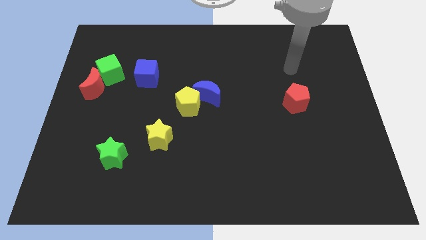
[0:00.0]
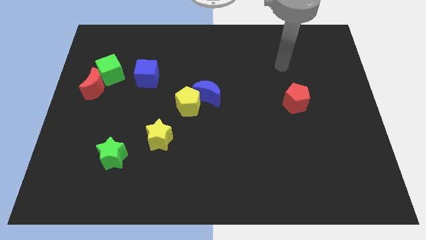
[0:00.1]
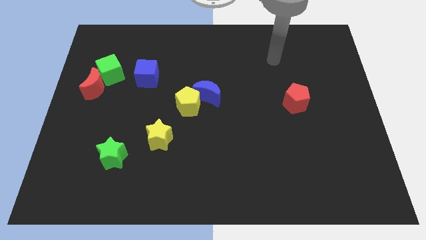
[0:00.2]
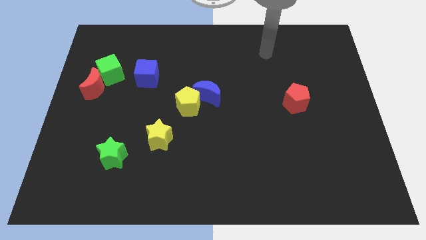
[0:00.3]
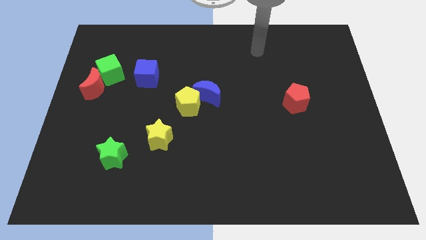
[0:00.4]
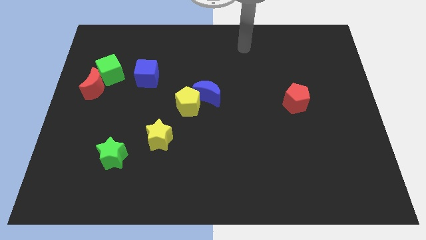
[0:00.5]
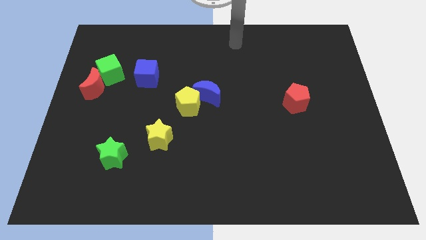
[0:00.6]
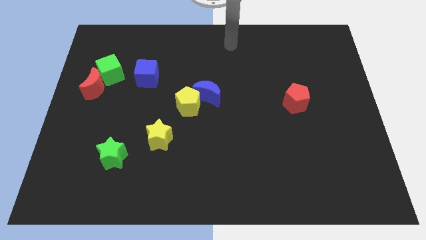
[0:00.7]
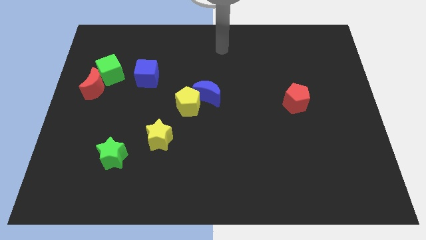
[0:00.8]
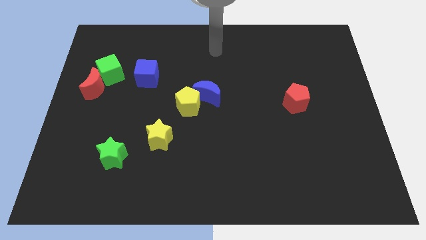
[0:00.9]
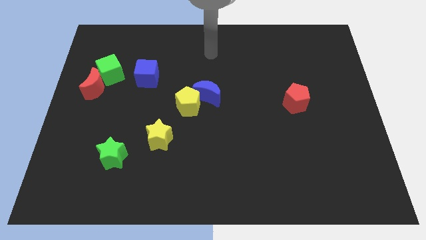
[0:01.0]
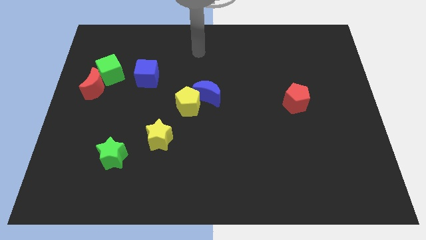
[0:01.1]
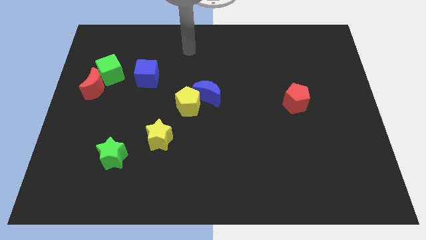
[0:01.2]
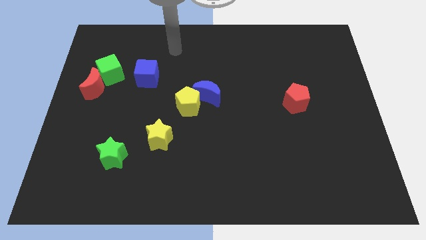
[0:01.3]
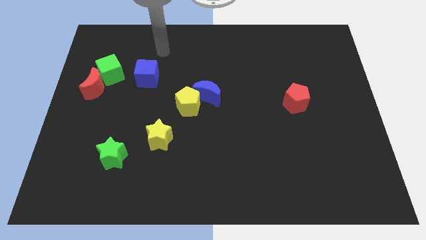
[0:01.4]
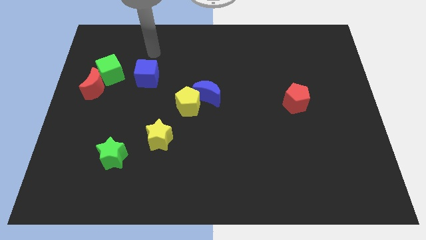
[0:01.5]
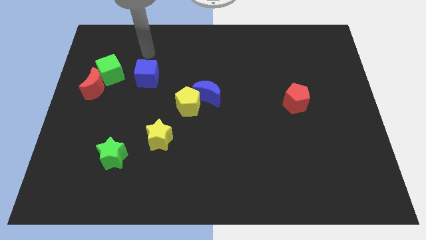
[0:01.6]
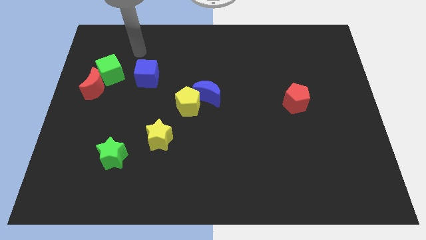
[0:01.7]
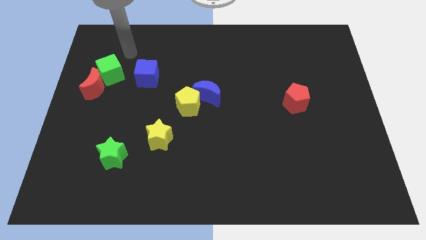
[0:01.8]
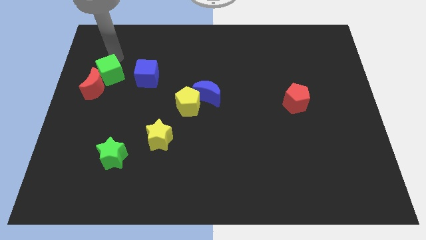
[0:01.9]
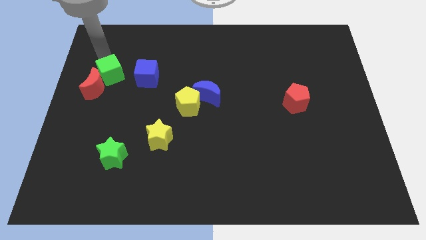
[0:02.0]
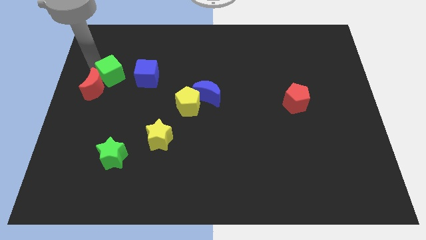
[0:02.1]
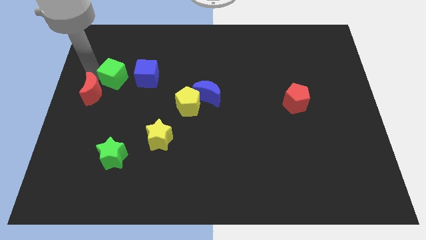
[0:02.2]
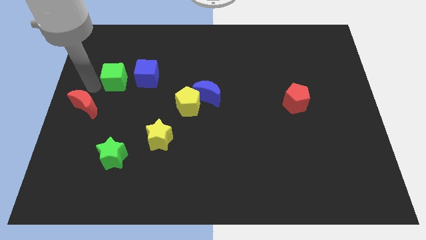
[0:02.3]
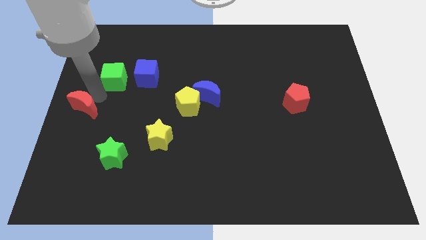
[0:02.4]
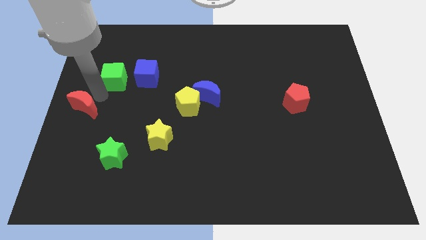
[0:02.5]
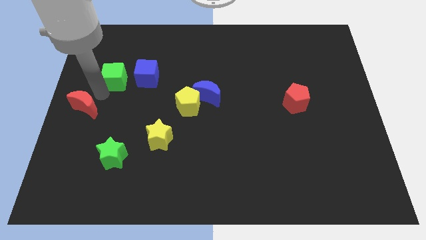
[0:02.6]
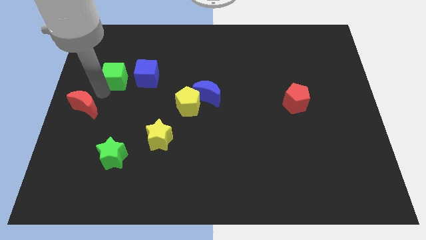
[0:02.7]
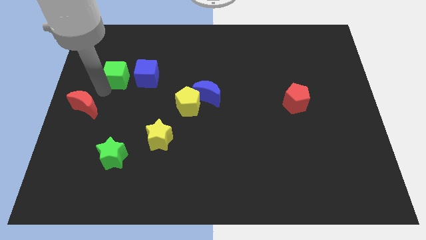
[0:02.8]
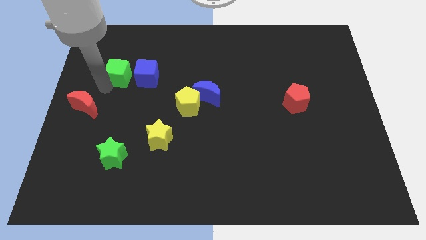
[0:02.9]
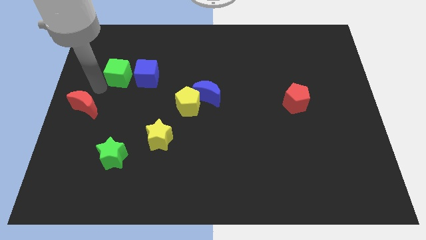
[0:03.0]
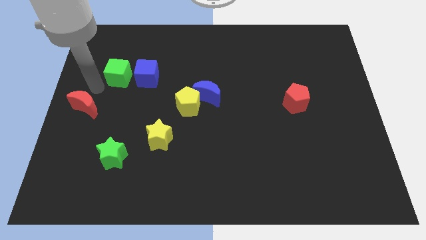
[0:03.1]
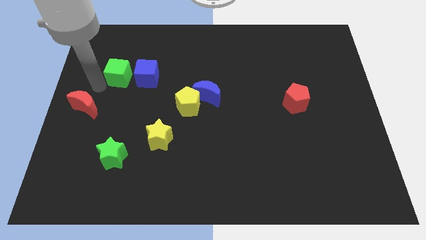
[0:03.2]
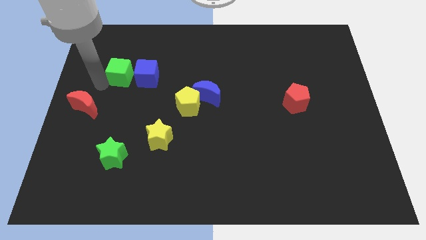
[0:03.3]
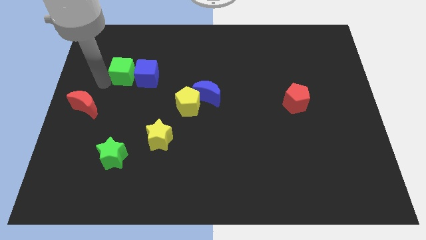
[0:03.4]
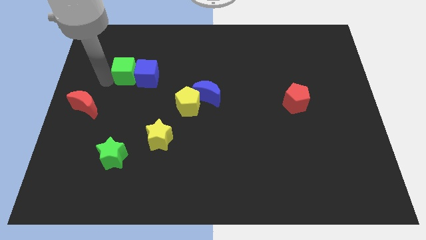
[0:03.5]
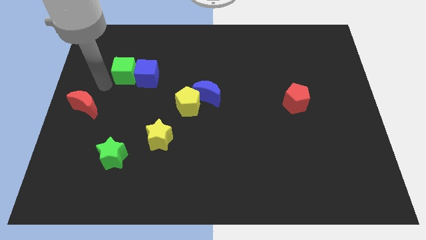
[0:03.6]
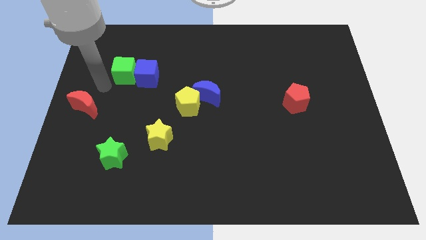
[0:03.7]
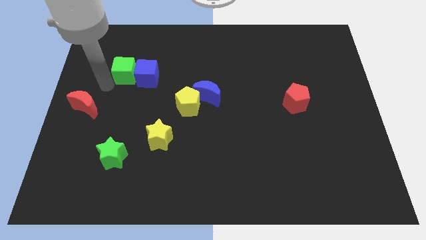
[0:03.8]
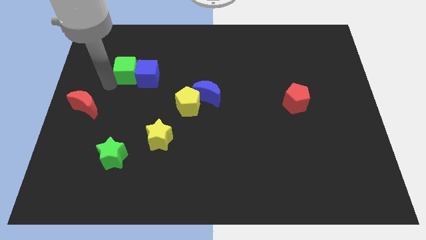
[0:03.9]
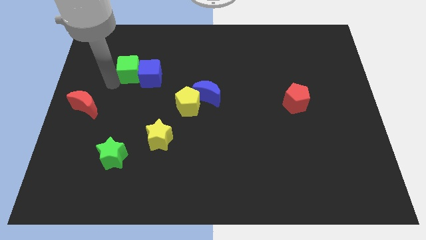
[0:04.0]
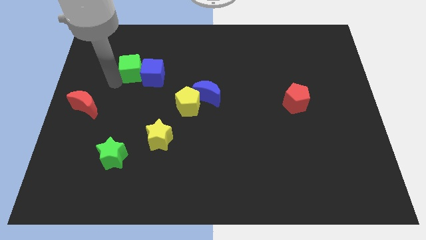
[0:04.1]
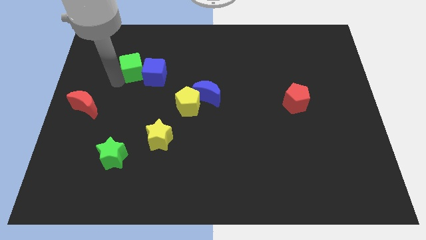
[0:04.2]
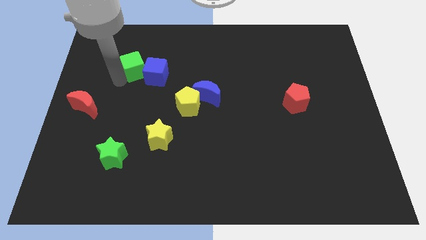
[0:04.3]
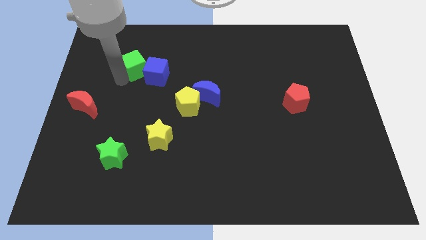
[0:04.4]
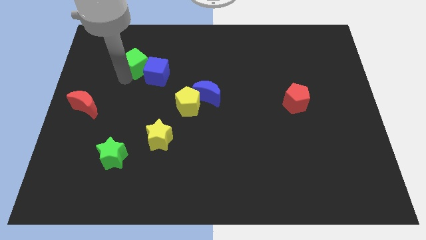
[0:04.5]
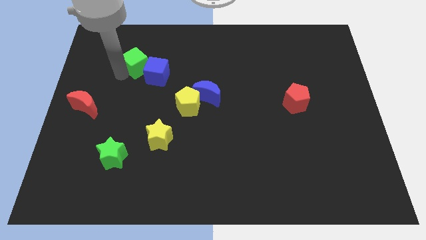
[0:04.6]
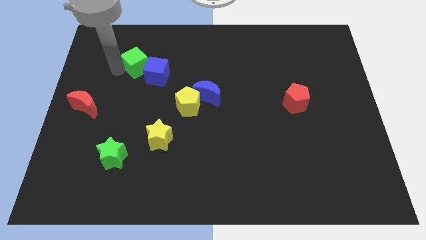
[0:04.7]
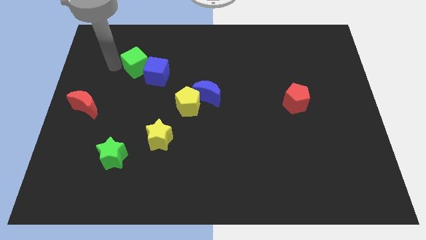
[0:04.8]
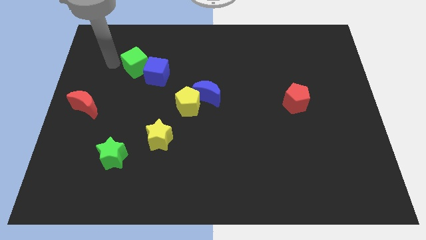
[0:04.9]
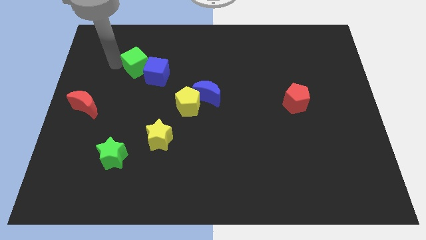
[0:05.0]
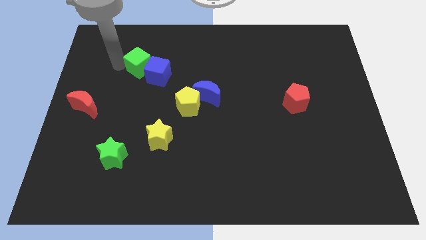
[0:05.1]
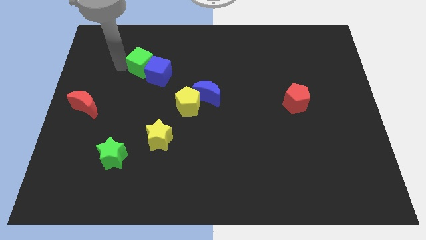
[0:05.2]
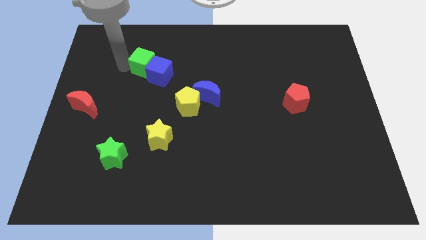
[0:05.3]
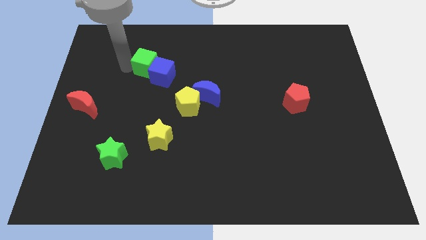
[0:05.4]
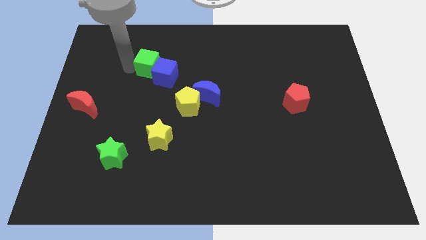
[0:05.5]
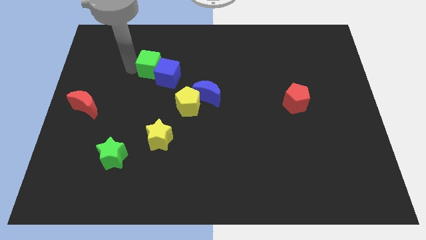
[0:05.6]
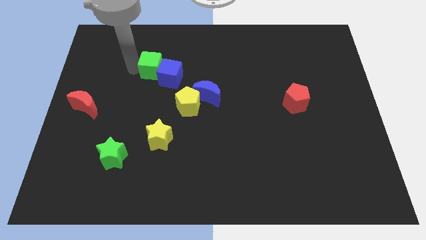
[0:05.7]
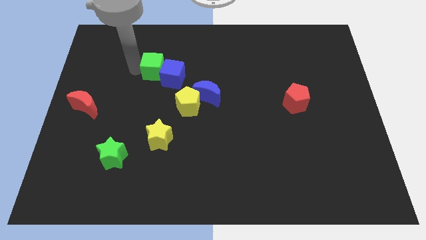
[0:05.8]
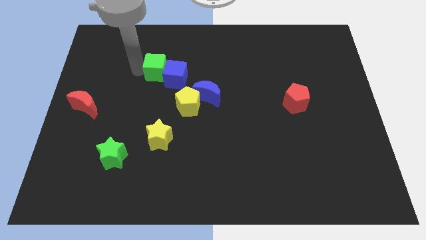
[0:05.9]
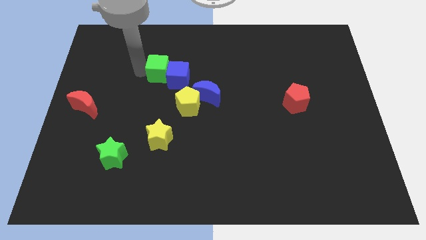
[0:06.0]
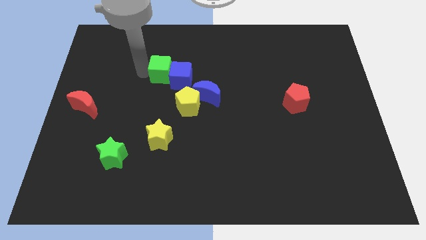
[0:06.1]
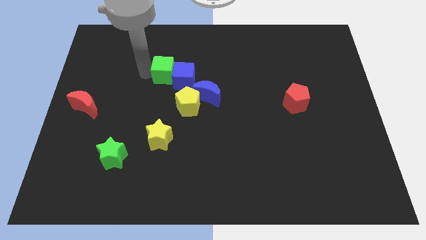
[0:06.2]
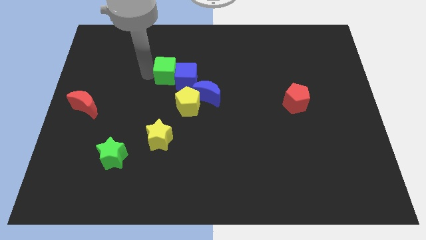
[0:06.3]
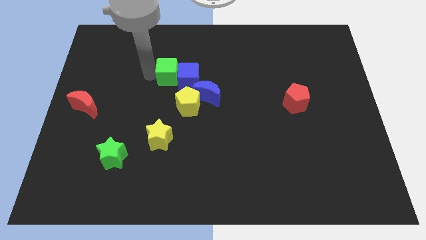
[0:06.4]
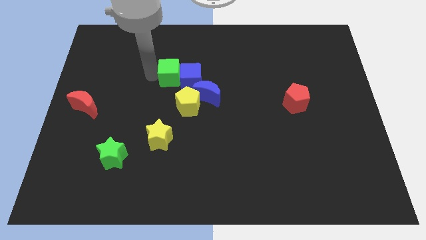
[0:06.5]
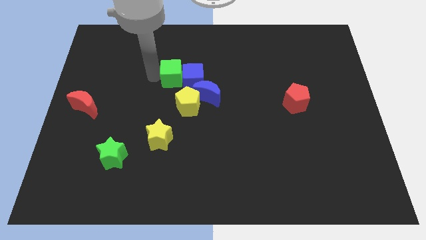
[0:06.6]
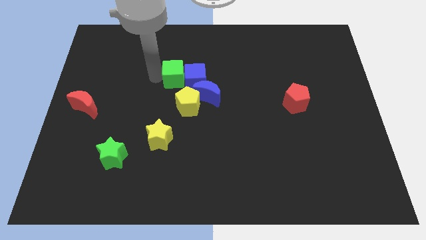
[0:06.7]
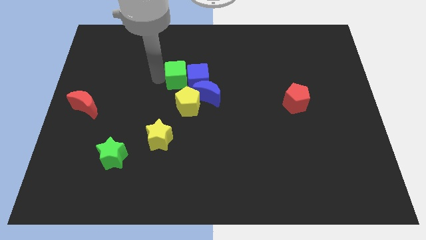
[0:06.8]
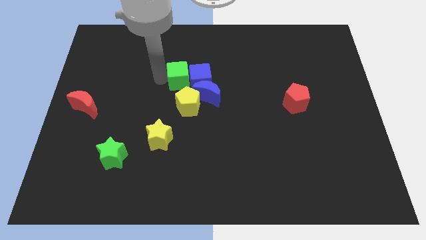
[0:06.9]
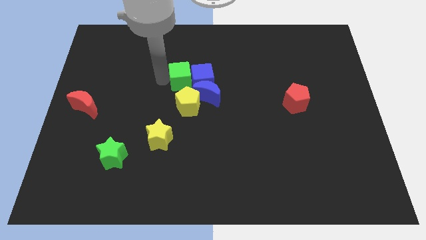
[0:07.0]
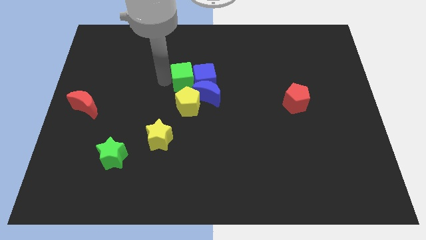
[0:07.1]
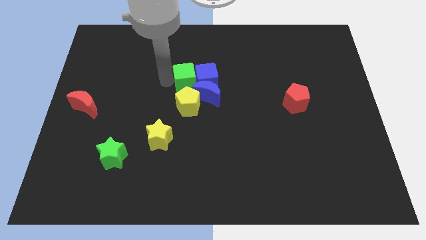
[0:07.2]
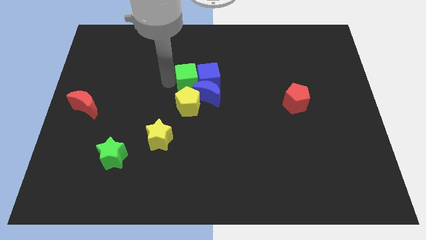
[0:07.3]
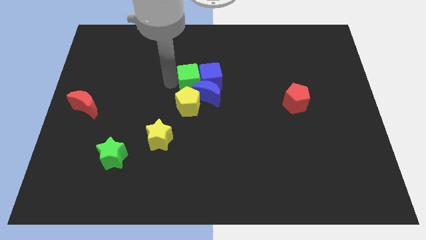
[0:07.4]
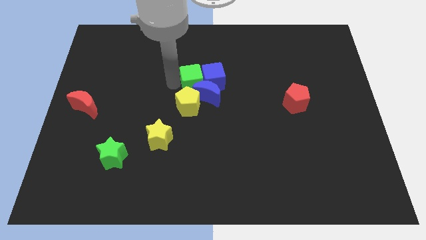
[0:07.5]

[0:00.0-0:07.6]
put the green cube to the top right side of the yellow pentagon

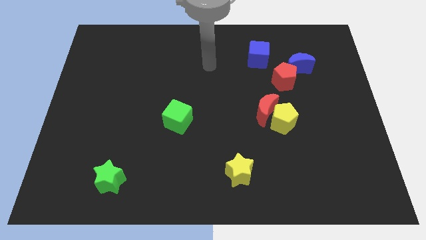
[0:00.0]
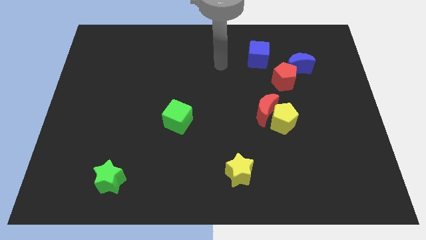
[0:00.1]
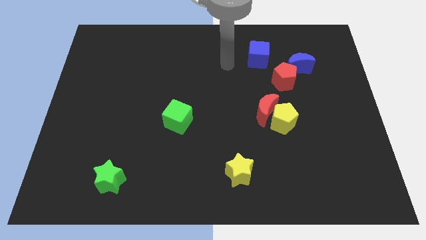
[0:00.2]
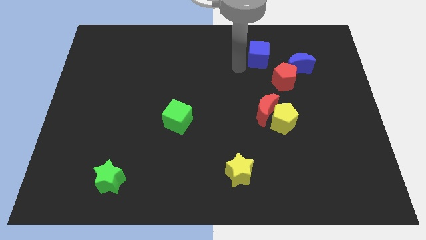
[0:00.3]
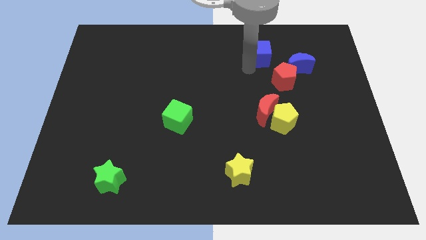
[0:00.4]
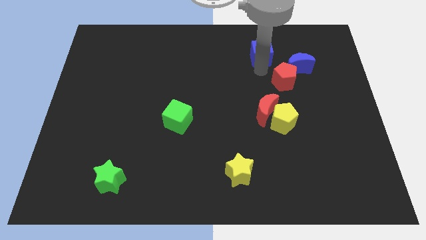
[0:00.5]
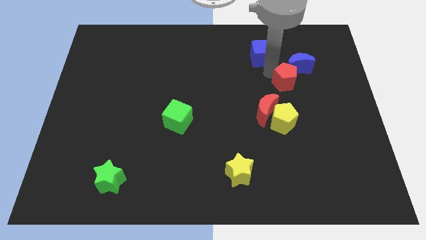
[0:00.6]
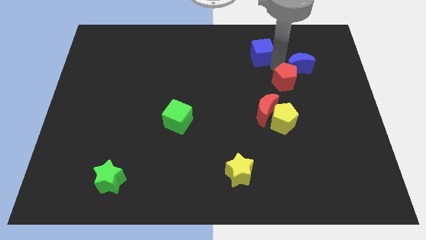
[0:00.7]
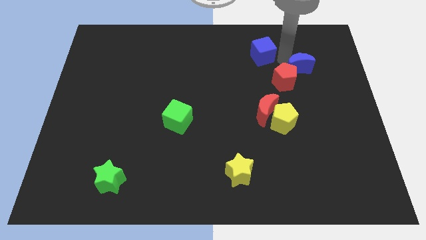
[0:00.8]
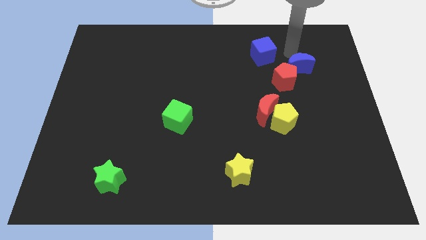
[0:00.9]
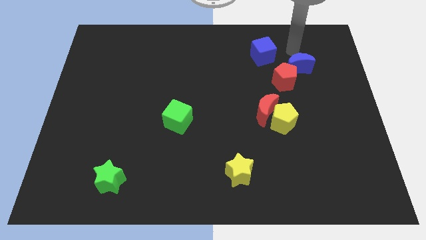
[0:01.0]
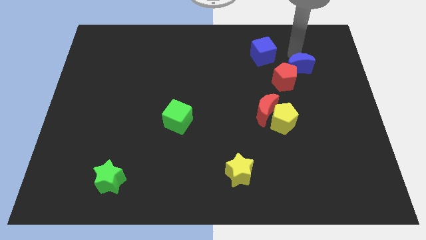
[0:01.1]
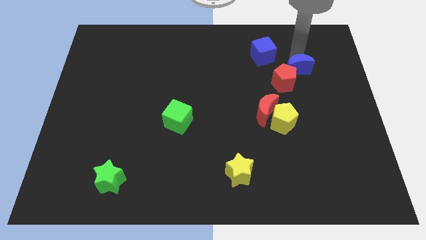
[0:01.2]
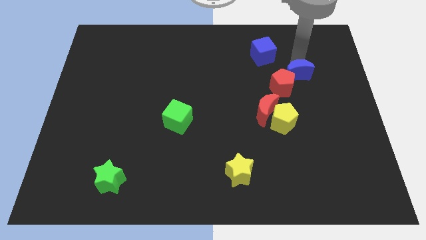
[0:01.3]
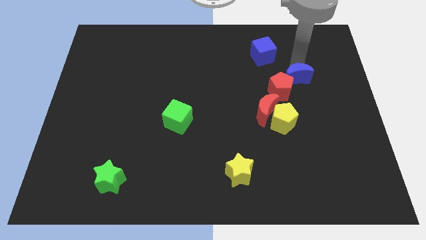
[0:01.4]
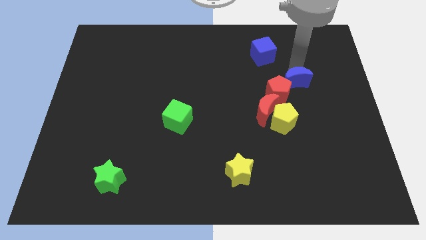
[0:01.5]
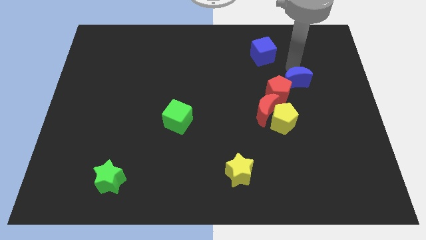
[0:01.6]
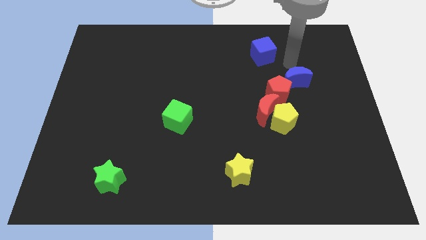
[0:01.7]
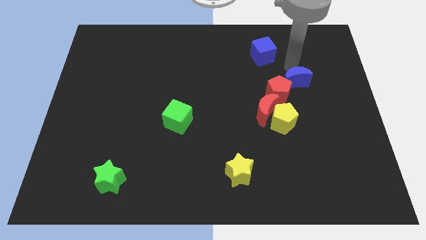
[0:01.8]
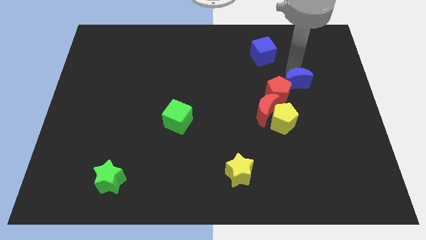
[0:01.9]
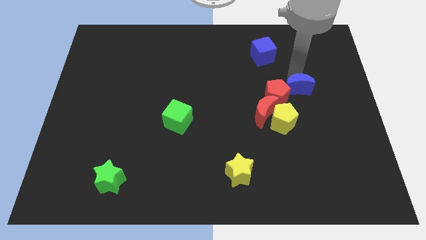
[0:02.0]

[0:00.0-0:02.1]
slide the blue moon to the top right of the yellow pentagon
